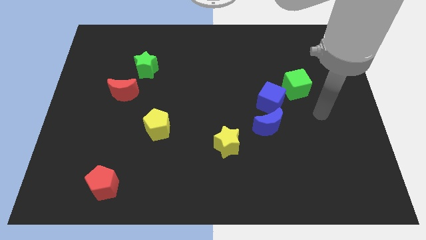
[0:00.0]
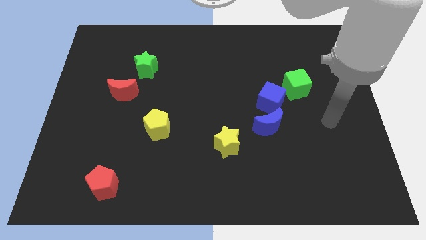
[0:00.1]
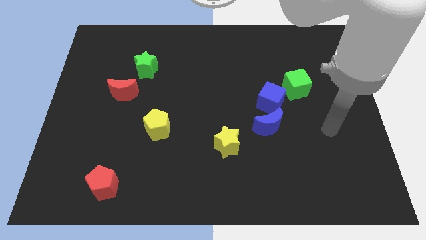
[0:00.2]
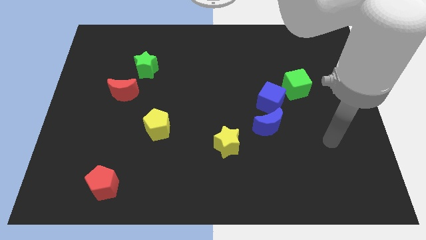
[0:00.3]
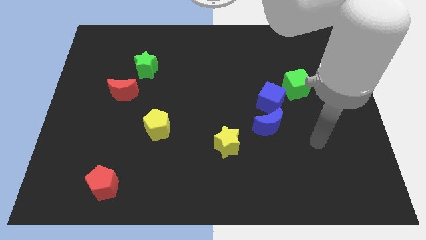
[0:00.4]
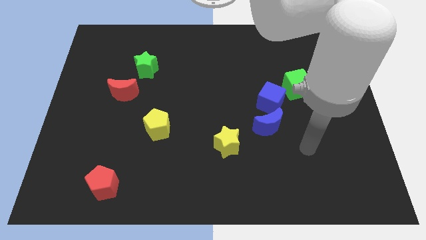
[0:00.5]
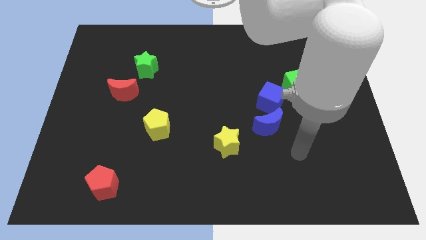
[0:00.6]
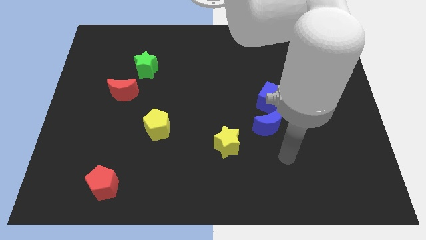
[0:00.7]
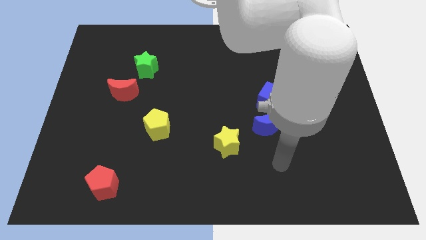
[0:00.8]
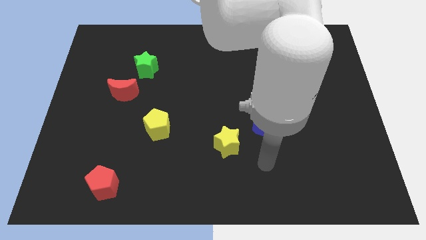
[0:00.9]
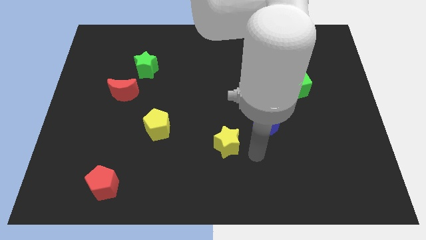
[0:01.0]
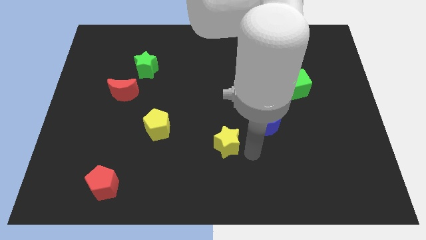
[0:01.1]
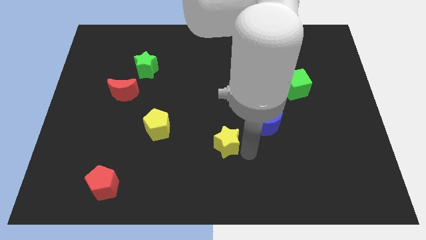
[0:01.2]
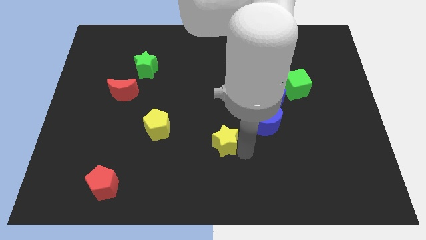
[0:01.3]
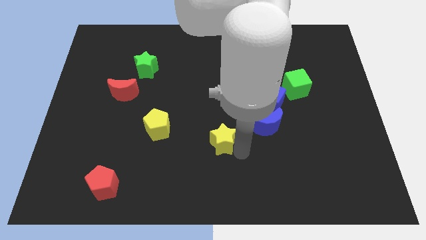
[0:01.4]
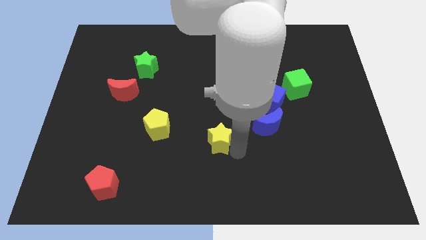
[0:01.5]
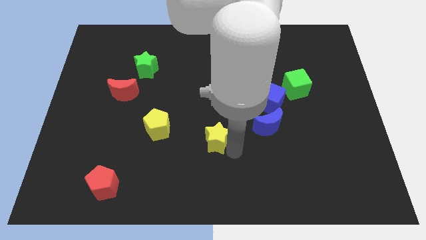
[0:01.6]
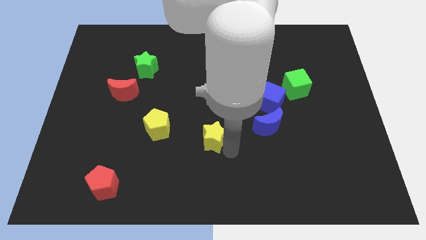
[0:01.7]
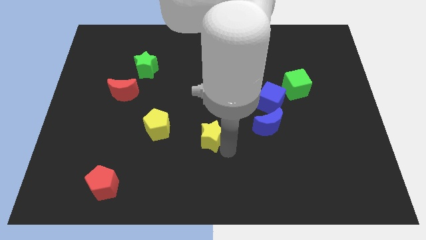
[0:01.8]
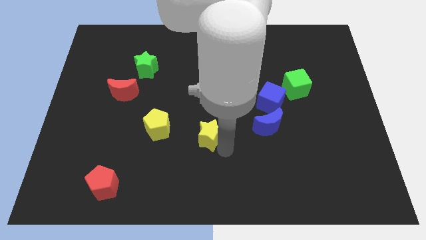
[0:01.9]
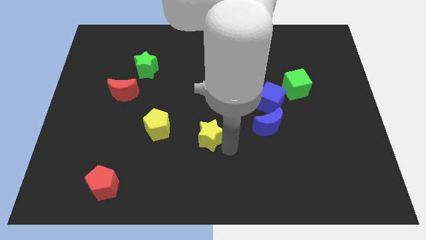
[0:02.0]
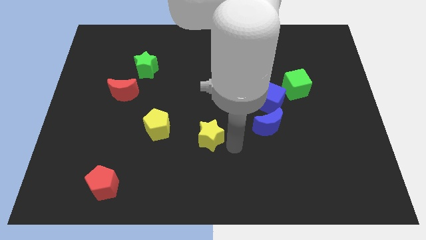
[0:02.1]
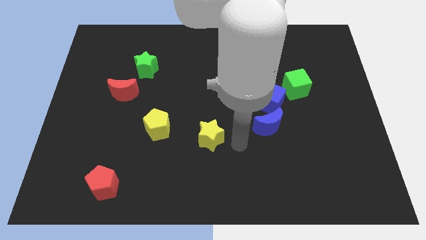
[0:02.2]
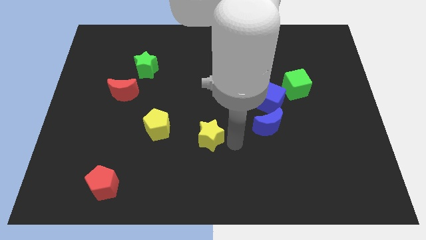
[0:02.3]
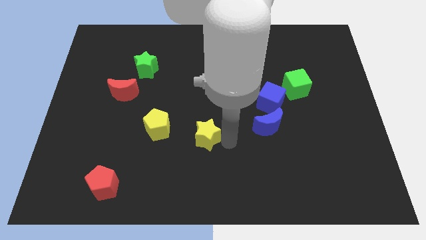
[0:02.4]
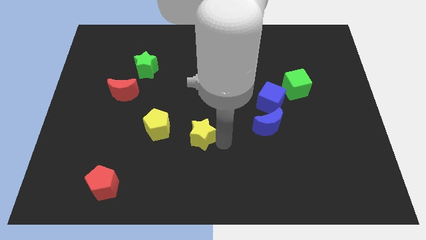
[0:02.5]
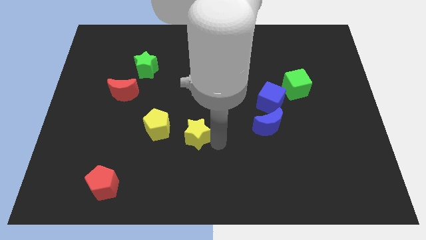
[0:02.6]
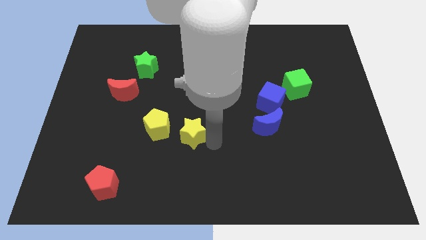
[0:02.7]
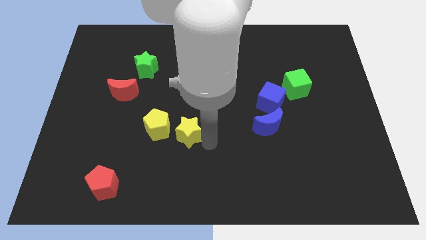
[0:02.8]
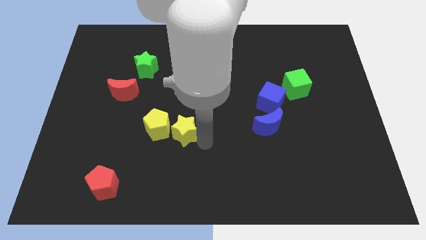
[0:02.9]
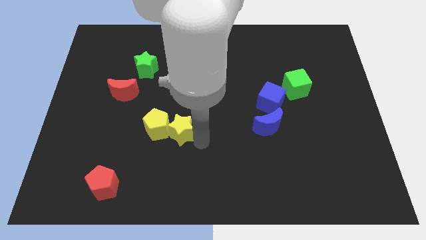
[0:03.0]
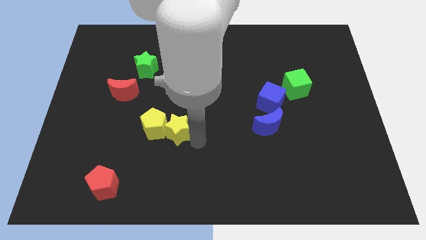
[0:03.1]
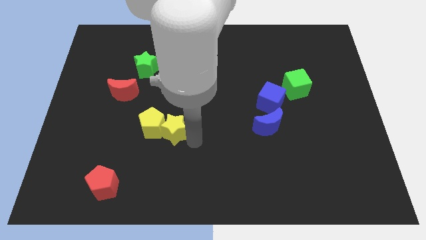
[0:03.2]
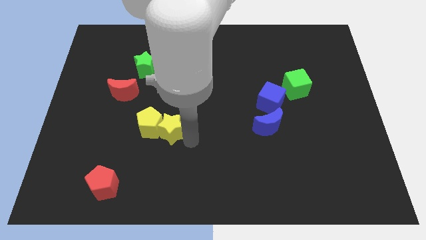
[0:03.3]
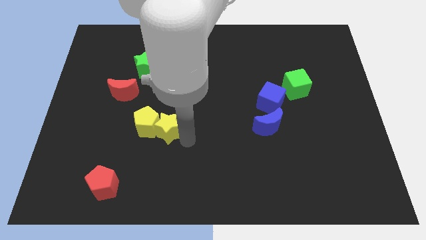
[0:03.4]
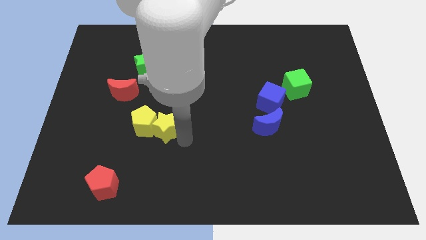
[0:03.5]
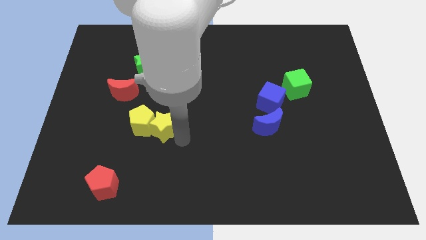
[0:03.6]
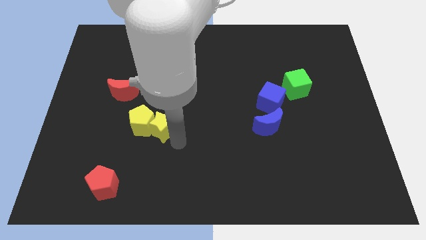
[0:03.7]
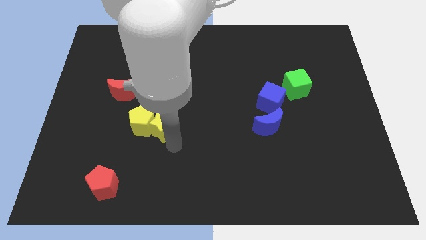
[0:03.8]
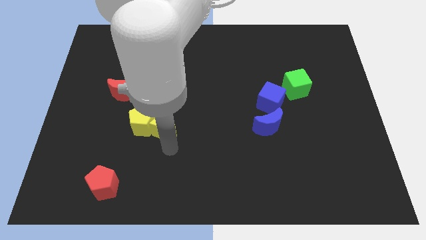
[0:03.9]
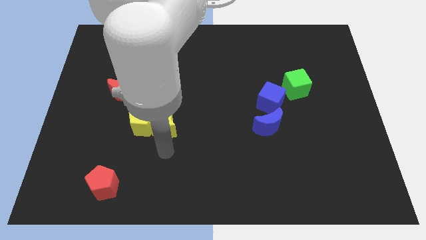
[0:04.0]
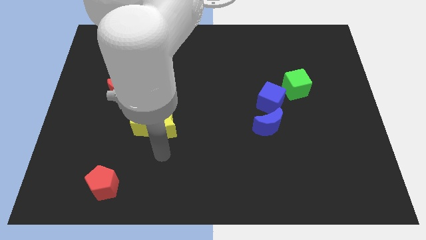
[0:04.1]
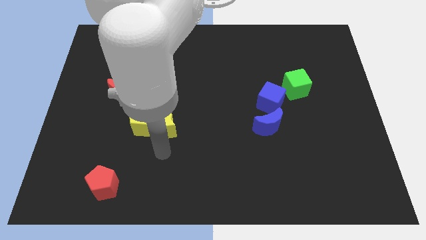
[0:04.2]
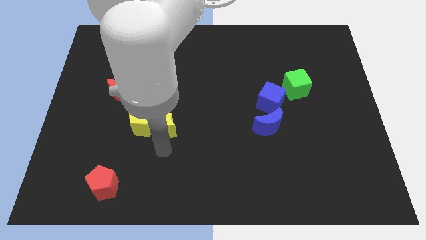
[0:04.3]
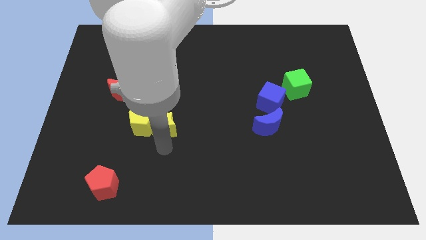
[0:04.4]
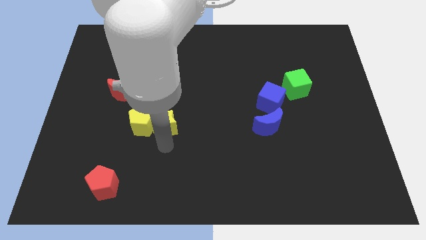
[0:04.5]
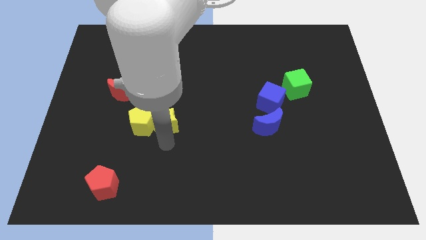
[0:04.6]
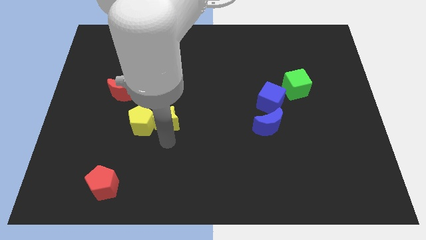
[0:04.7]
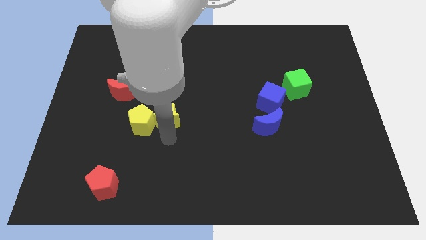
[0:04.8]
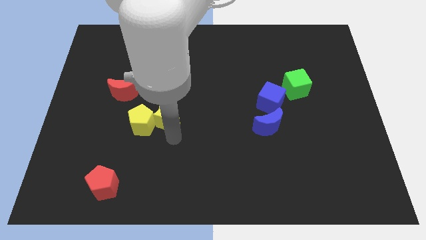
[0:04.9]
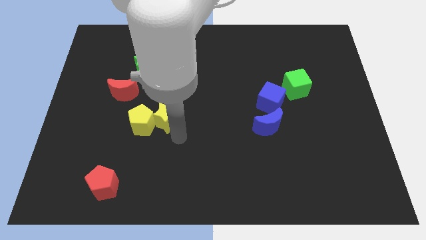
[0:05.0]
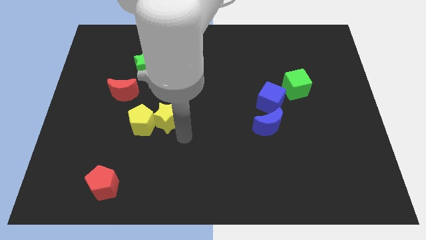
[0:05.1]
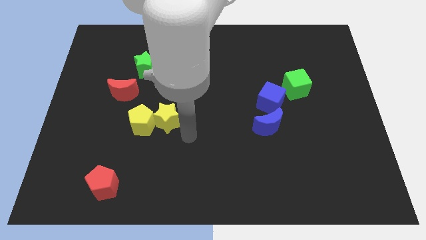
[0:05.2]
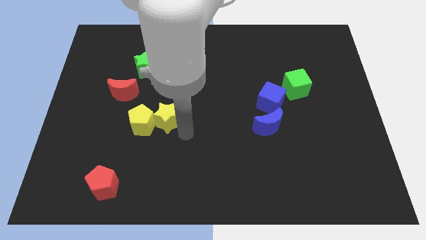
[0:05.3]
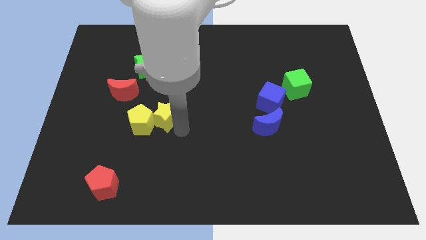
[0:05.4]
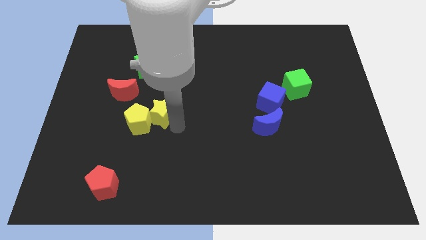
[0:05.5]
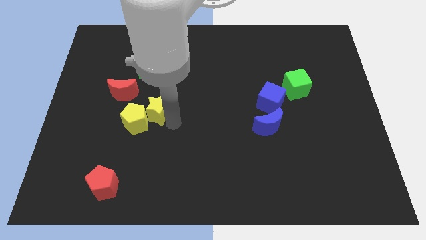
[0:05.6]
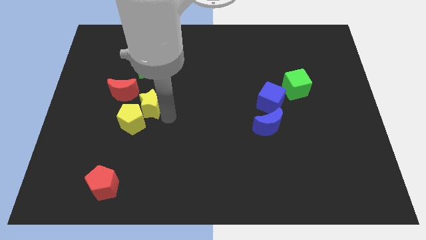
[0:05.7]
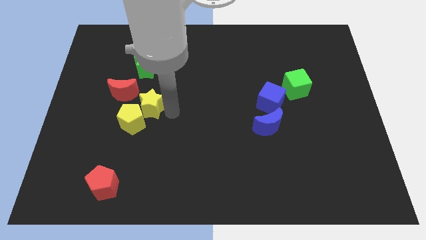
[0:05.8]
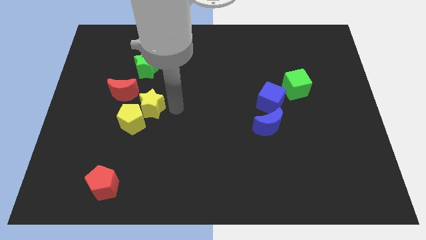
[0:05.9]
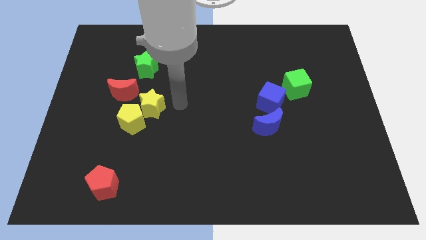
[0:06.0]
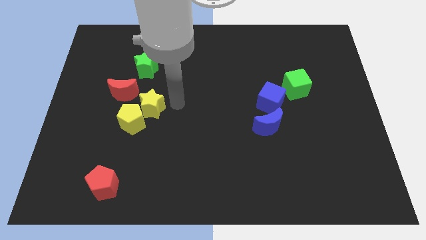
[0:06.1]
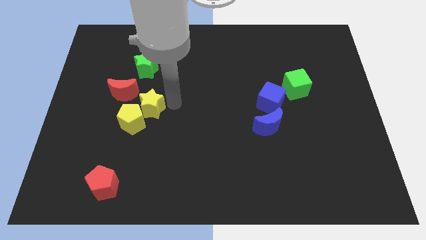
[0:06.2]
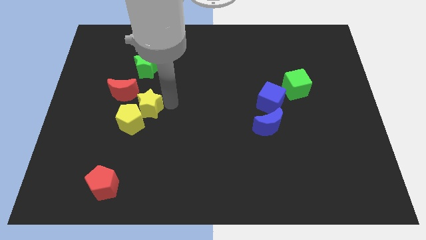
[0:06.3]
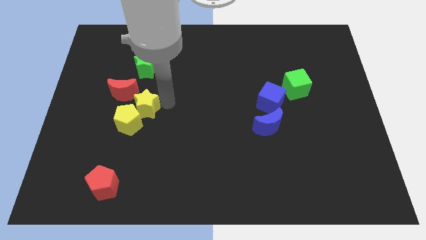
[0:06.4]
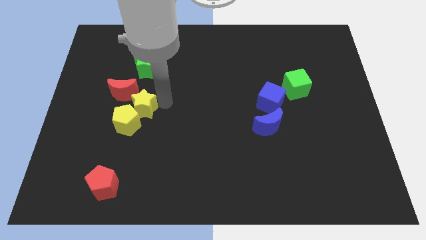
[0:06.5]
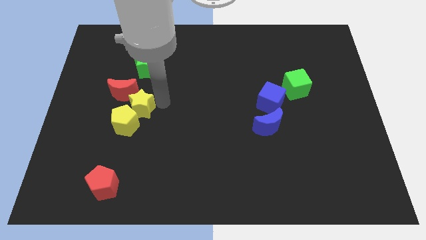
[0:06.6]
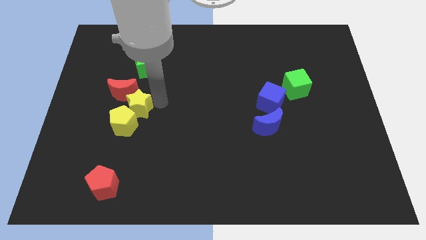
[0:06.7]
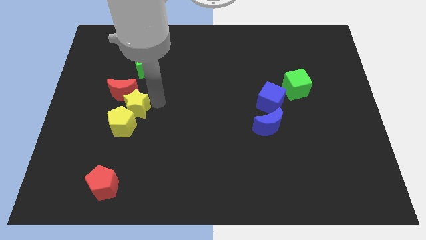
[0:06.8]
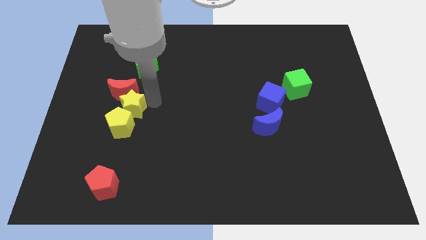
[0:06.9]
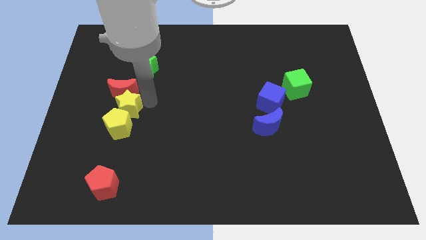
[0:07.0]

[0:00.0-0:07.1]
move the yellow star to the bottom left side of the red moon
